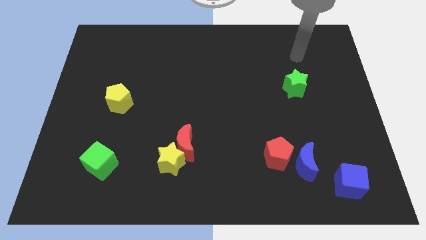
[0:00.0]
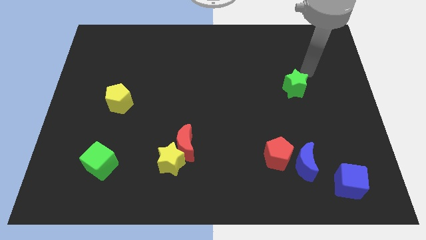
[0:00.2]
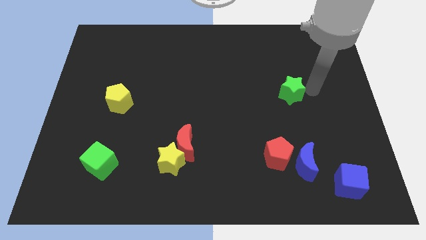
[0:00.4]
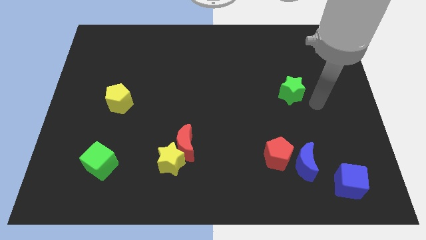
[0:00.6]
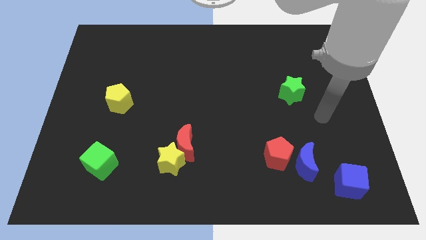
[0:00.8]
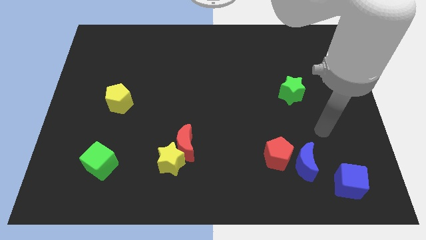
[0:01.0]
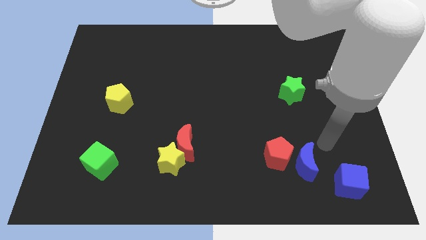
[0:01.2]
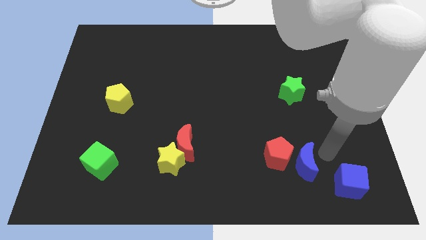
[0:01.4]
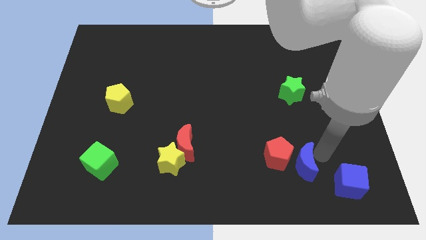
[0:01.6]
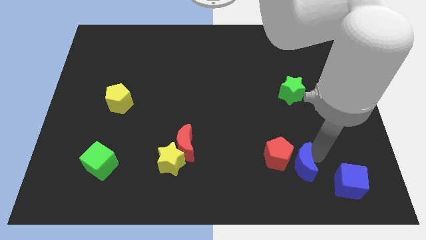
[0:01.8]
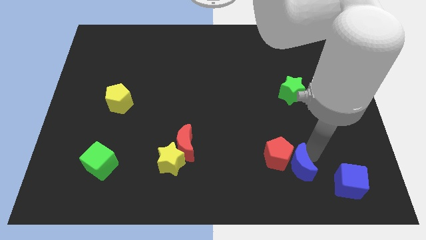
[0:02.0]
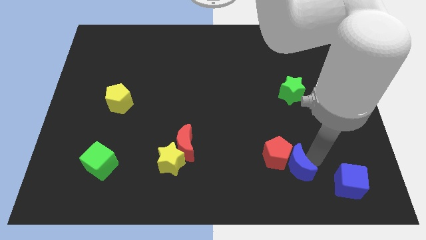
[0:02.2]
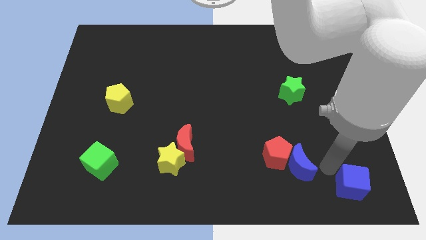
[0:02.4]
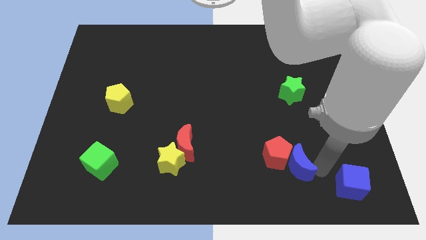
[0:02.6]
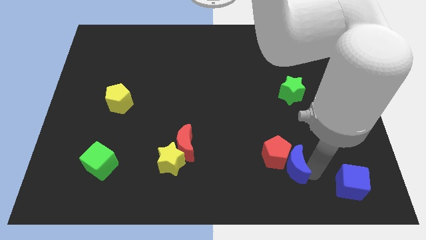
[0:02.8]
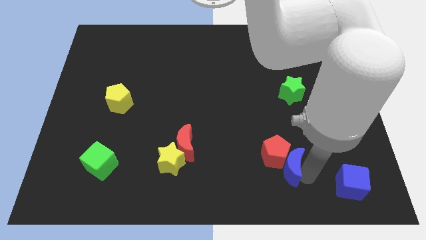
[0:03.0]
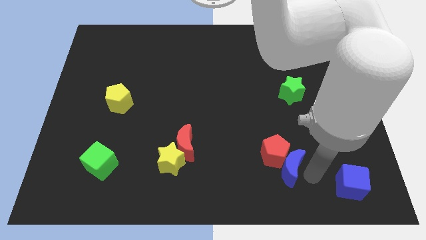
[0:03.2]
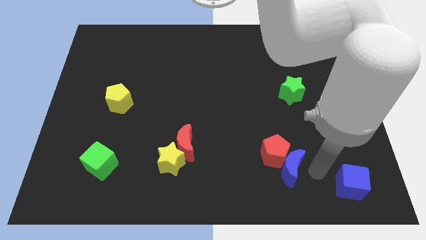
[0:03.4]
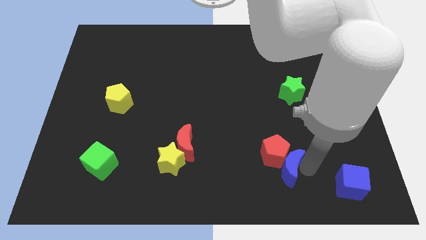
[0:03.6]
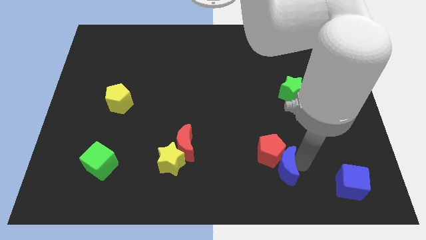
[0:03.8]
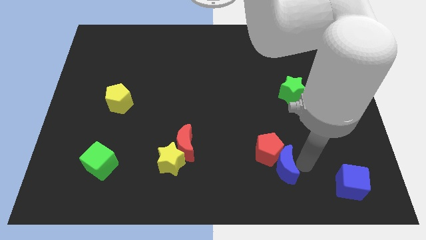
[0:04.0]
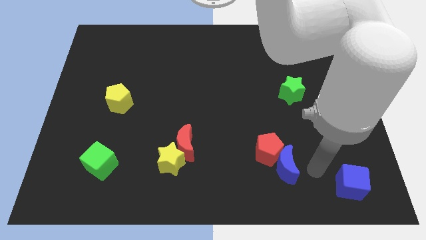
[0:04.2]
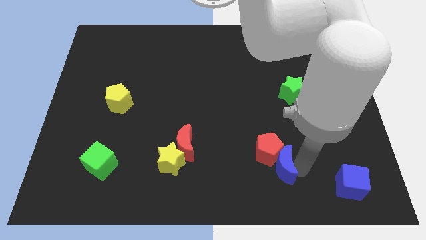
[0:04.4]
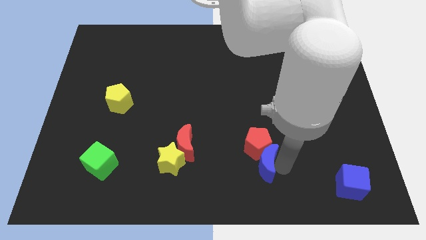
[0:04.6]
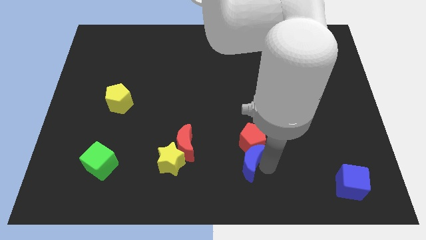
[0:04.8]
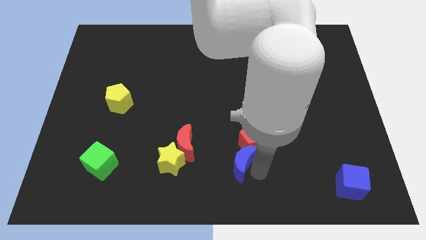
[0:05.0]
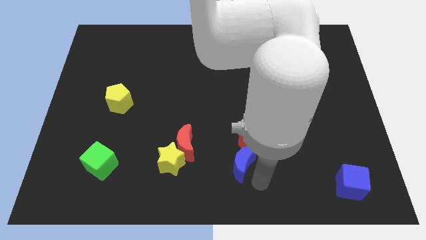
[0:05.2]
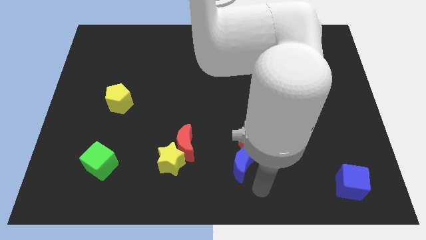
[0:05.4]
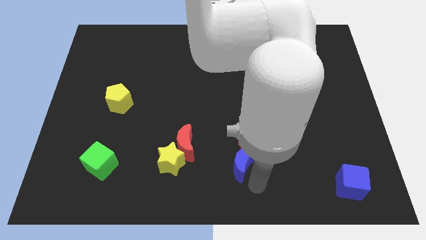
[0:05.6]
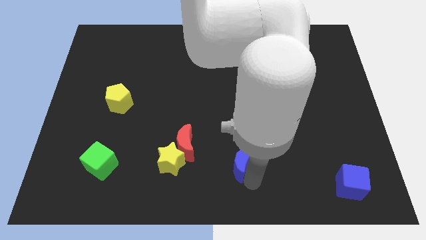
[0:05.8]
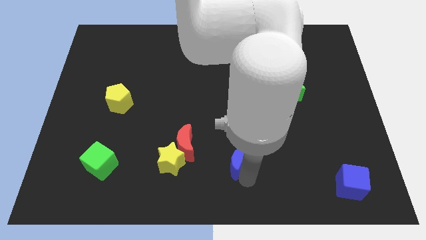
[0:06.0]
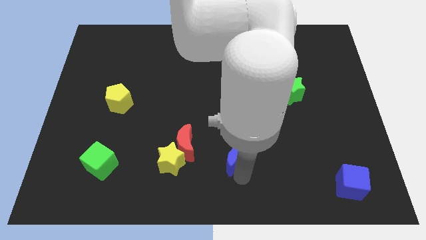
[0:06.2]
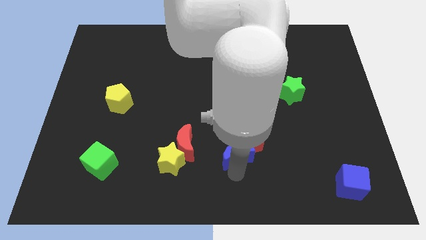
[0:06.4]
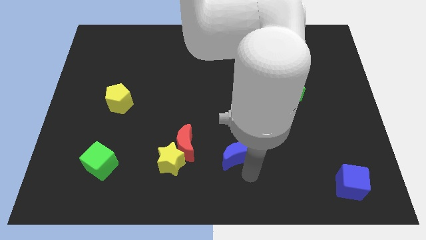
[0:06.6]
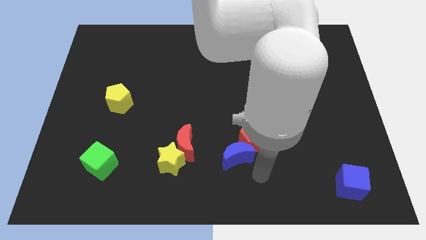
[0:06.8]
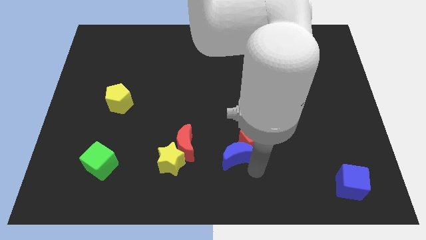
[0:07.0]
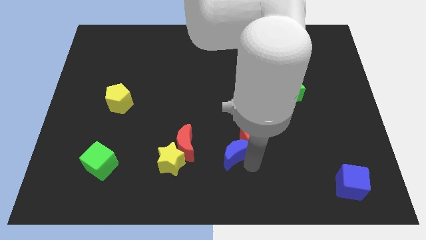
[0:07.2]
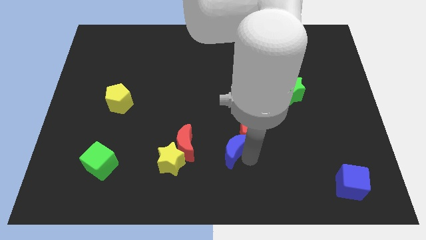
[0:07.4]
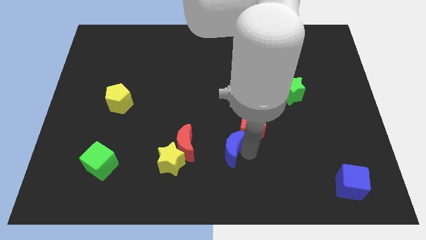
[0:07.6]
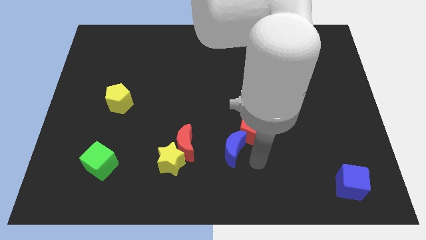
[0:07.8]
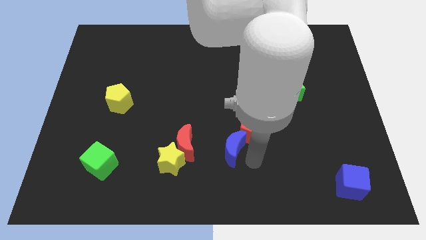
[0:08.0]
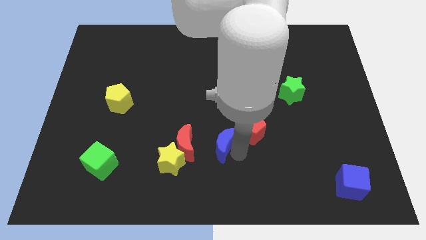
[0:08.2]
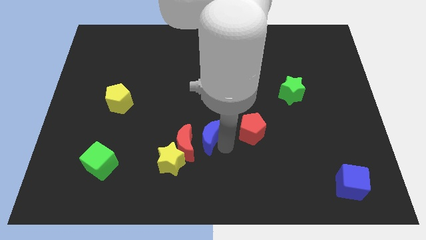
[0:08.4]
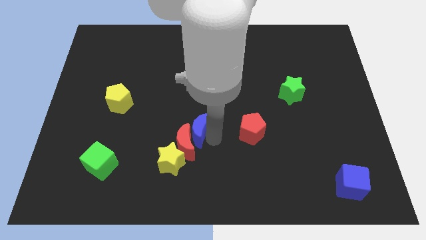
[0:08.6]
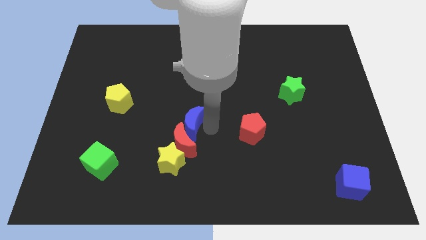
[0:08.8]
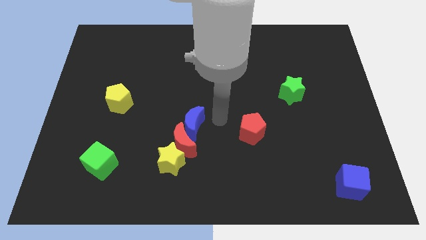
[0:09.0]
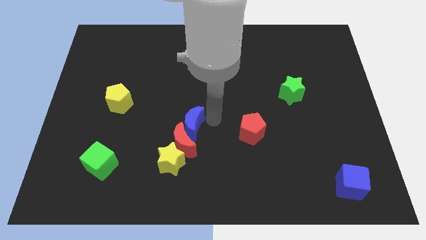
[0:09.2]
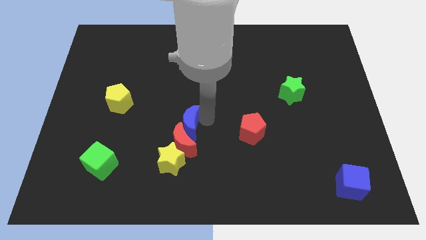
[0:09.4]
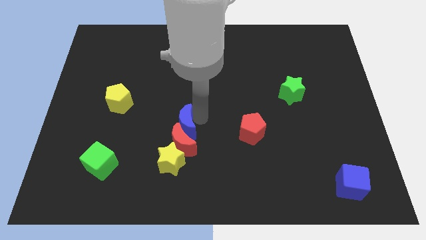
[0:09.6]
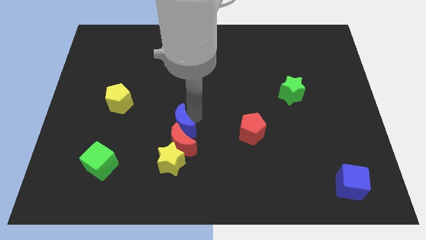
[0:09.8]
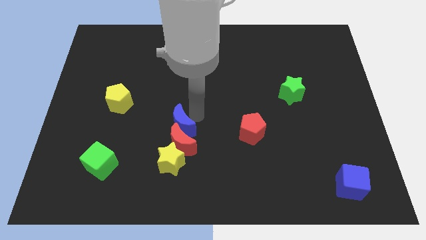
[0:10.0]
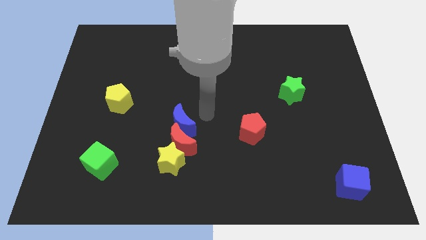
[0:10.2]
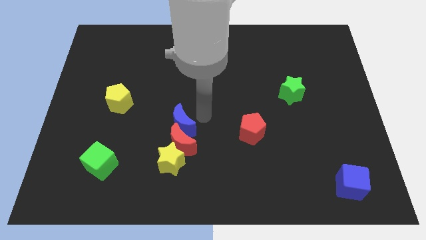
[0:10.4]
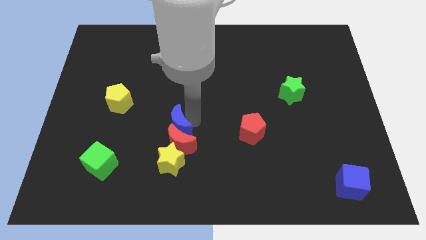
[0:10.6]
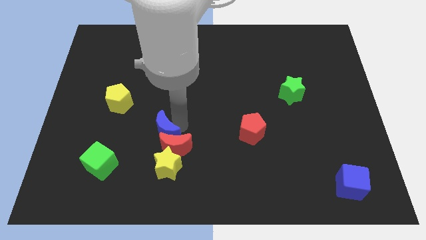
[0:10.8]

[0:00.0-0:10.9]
move the blue moon to the left of the red moon

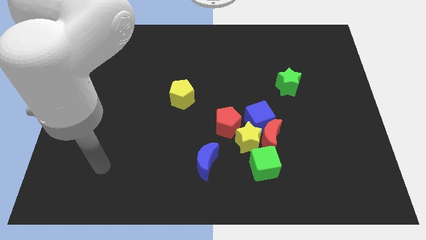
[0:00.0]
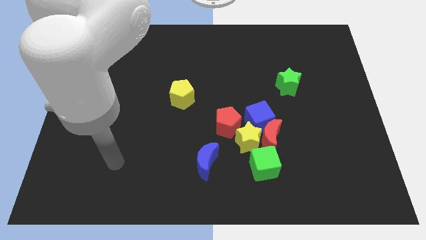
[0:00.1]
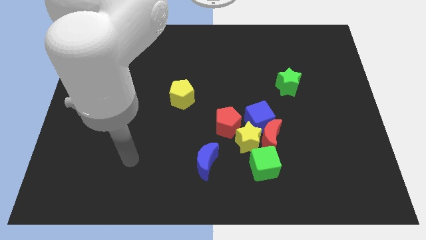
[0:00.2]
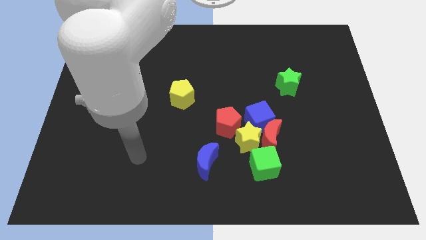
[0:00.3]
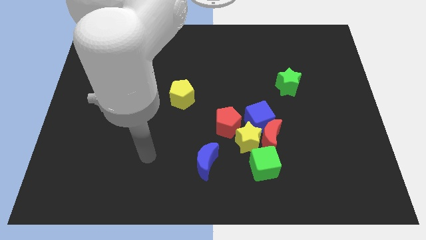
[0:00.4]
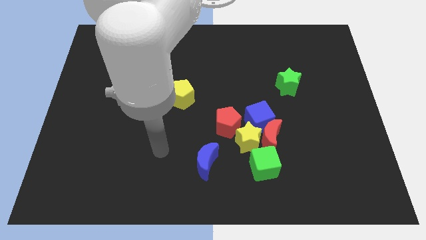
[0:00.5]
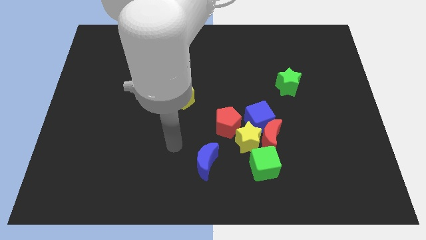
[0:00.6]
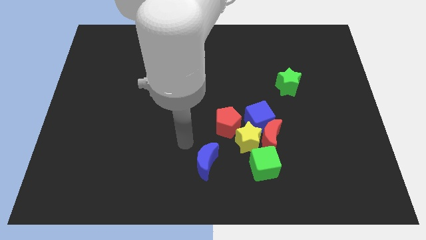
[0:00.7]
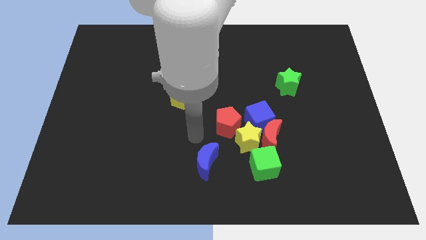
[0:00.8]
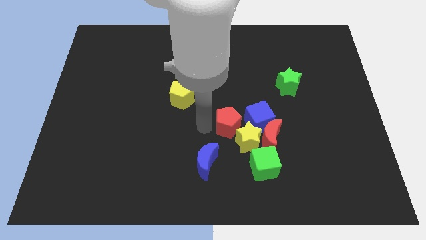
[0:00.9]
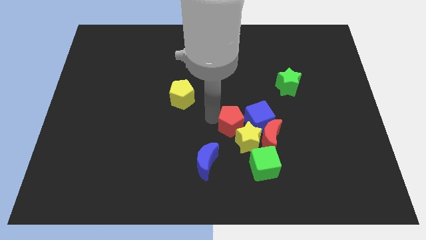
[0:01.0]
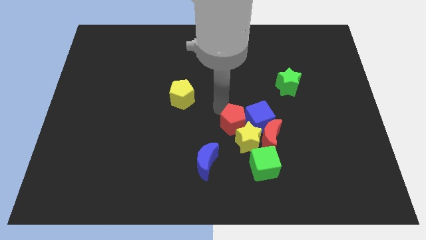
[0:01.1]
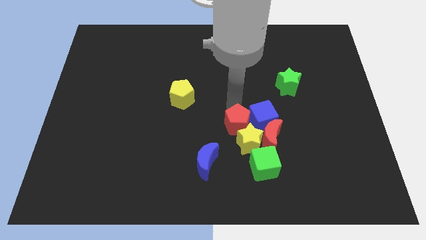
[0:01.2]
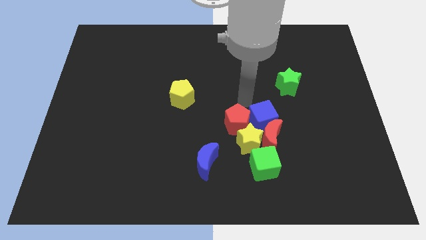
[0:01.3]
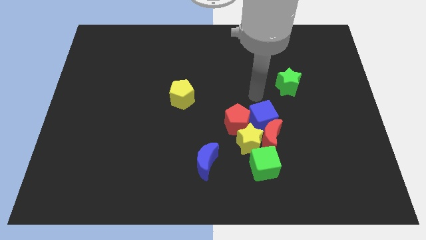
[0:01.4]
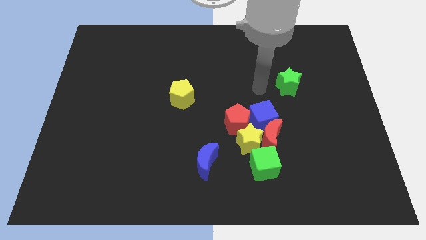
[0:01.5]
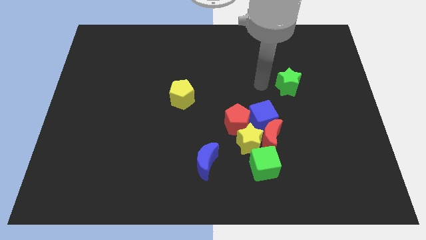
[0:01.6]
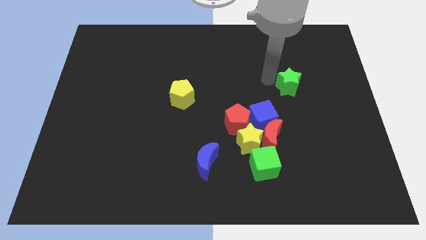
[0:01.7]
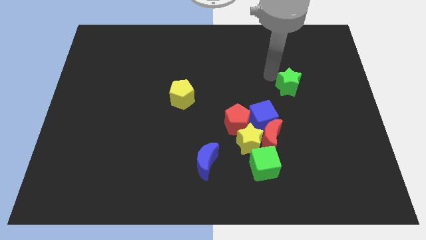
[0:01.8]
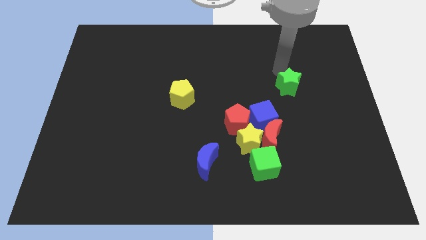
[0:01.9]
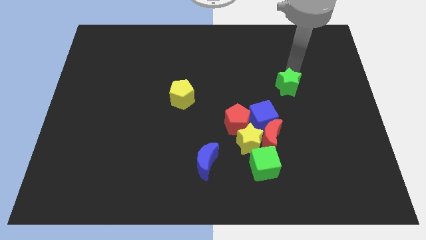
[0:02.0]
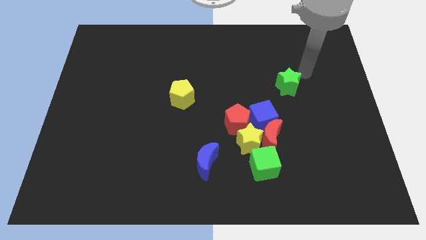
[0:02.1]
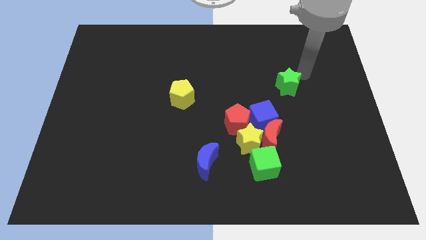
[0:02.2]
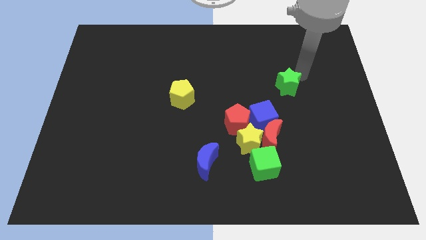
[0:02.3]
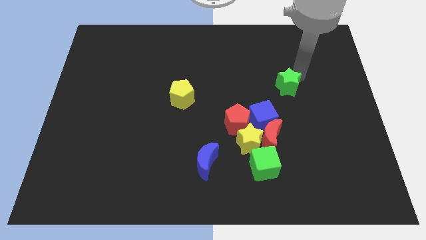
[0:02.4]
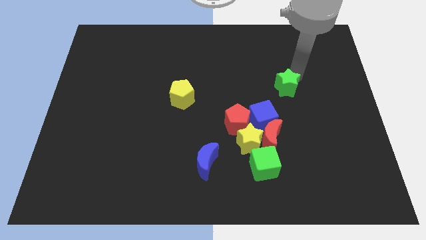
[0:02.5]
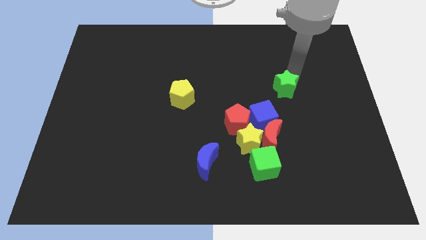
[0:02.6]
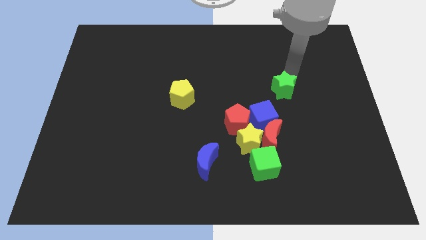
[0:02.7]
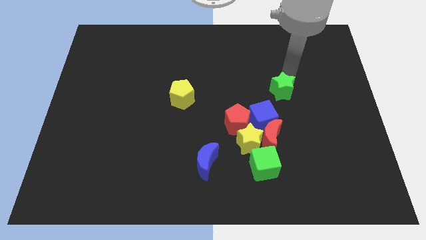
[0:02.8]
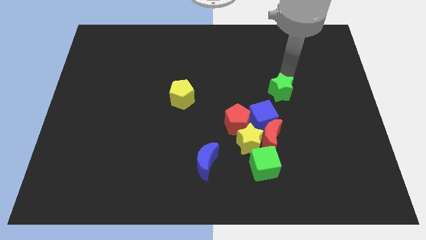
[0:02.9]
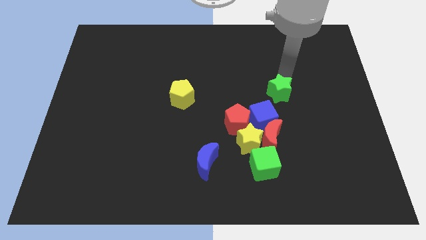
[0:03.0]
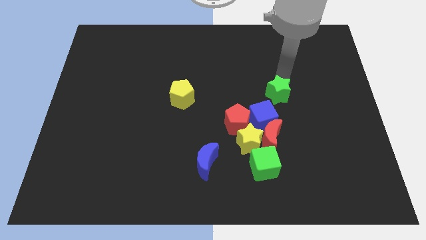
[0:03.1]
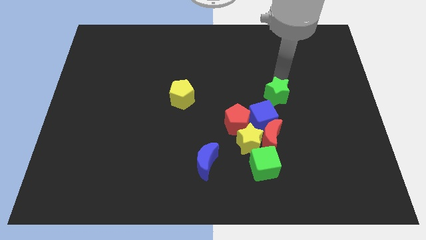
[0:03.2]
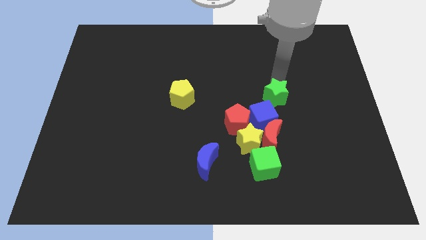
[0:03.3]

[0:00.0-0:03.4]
move the green star to the top right of the red pentagon
